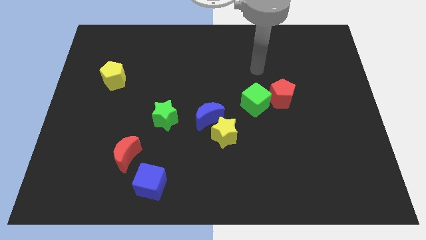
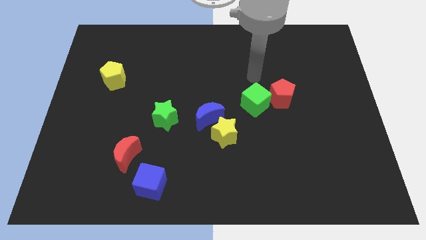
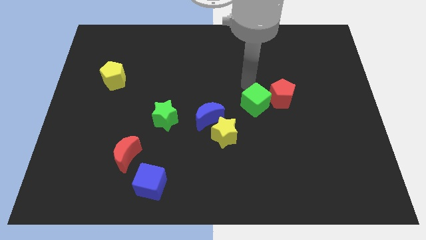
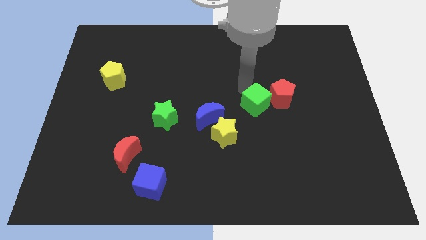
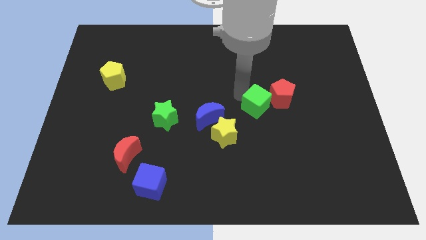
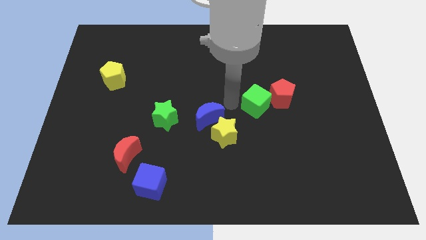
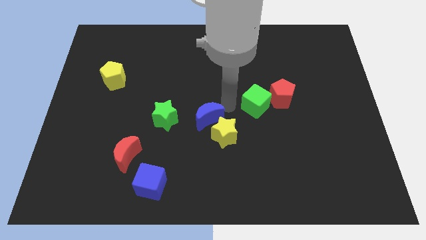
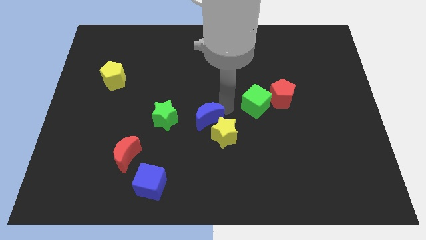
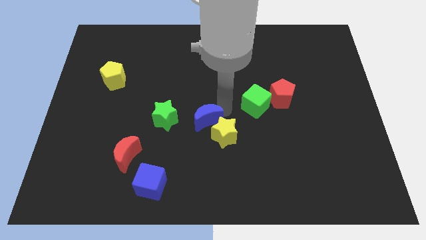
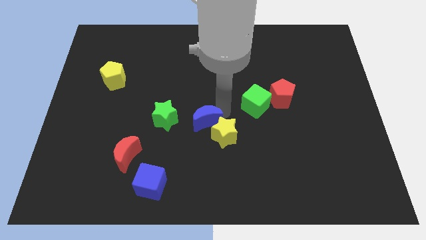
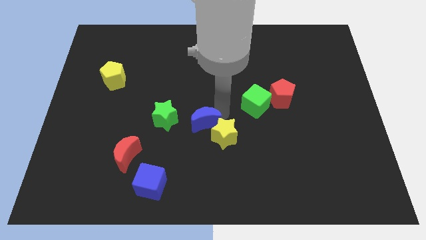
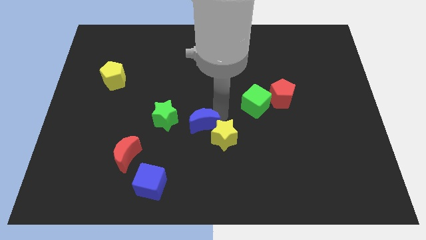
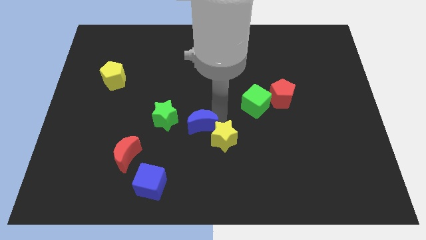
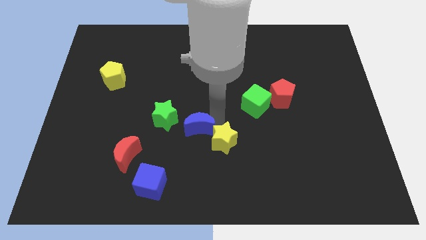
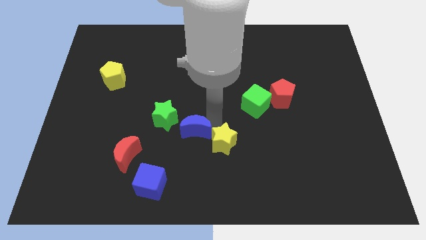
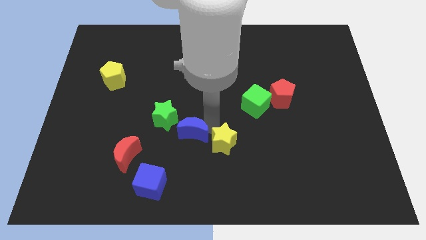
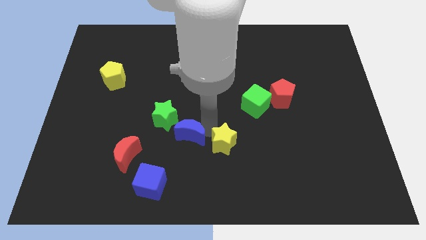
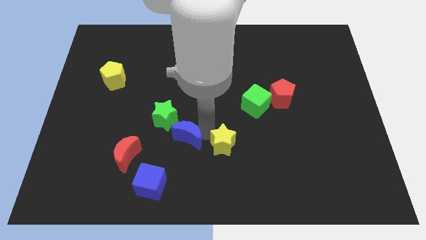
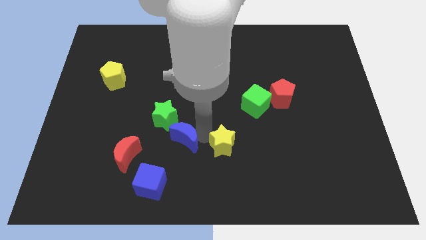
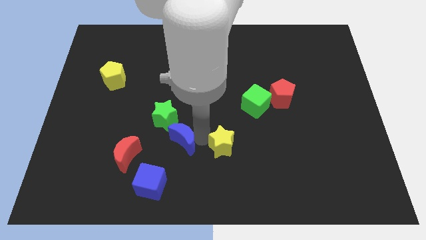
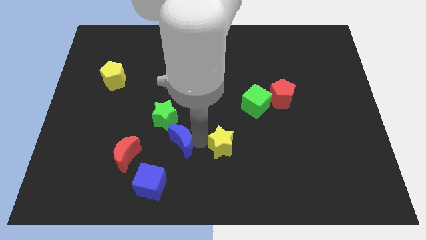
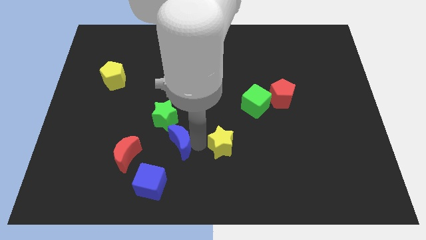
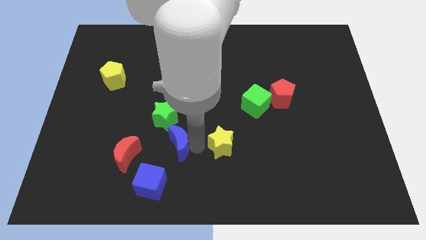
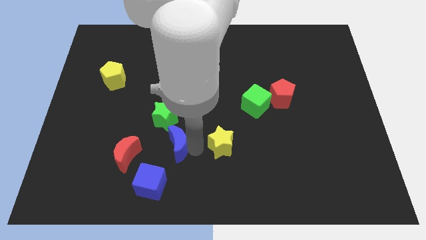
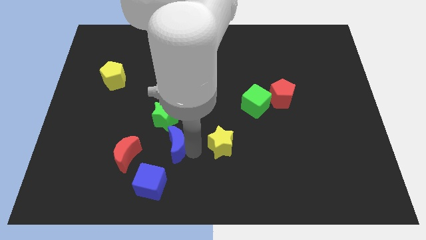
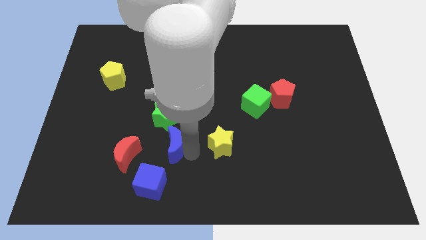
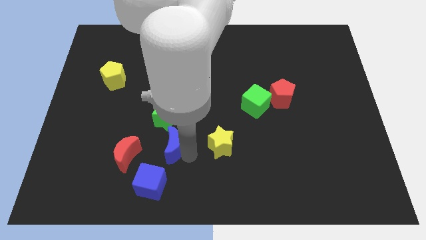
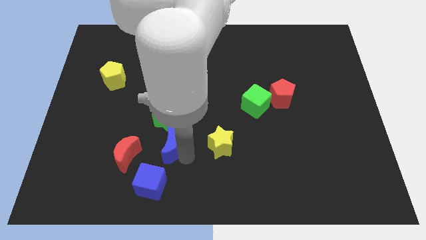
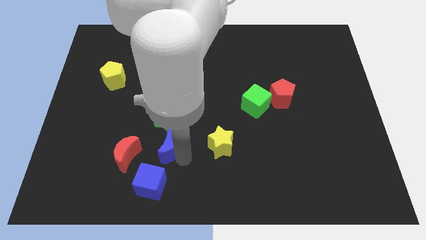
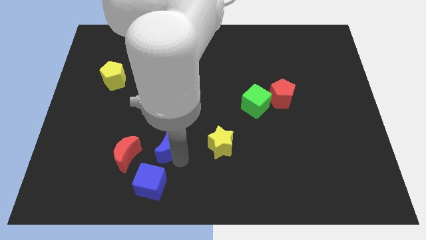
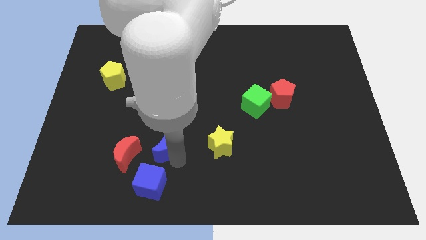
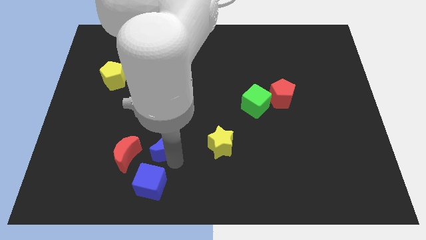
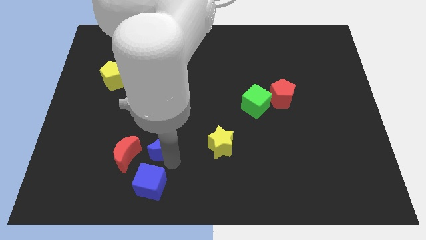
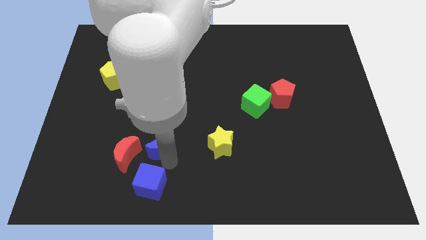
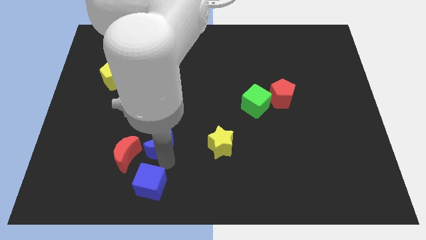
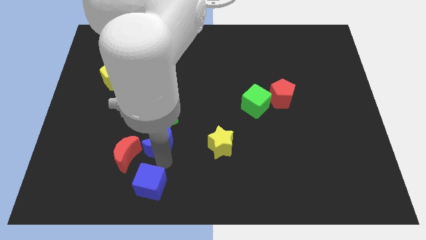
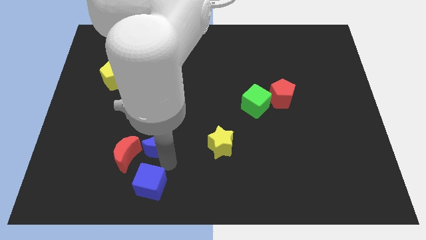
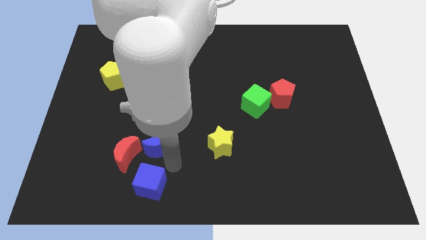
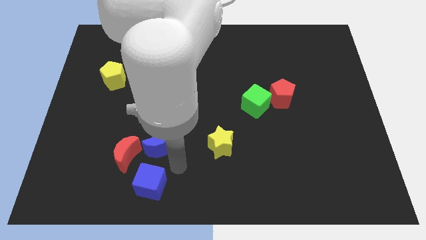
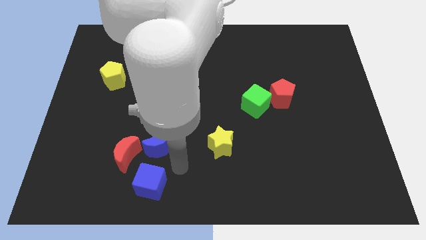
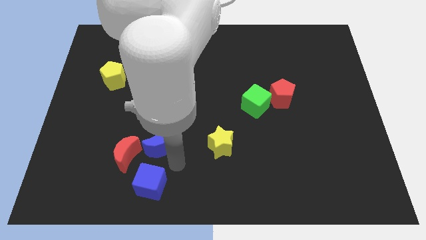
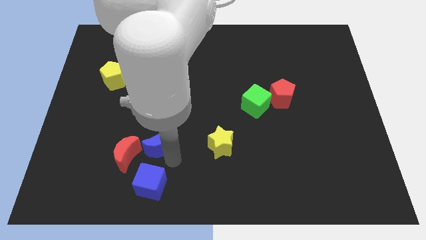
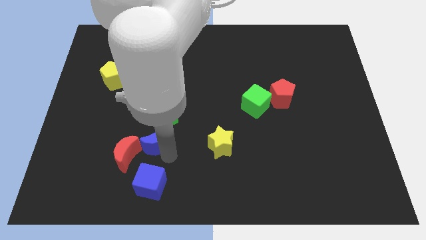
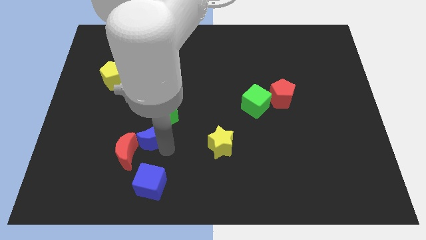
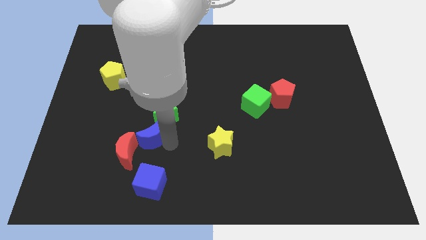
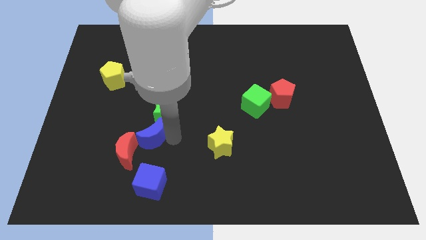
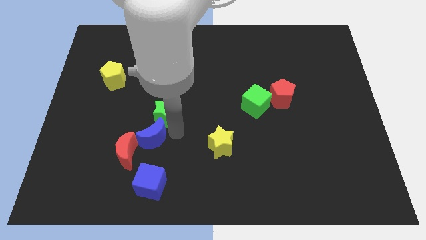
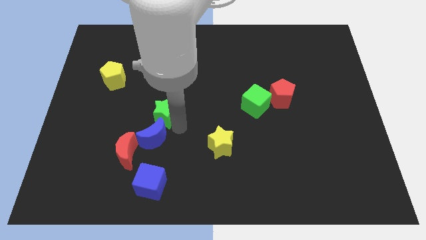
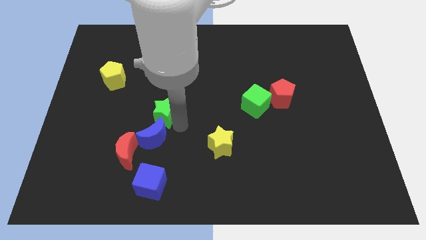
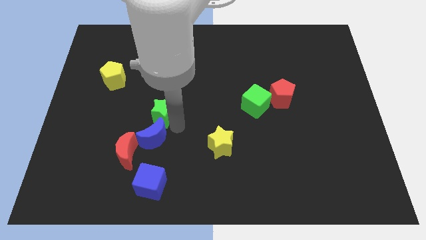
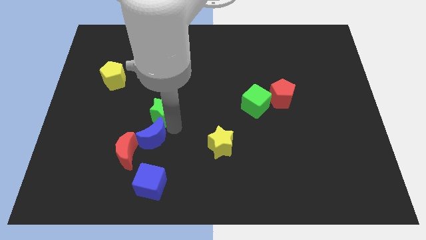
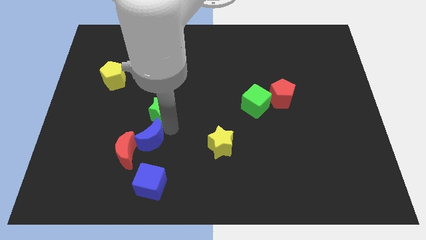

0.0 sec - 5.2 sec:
slide the blue moon towards the red moon

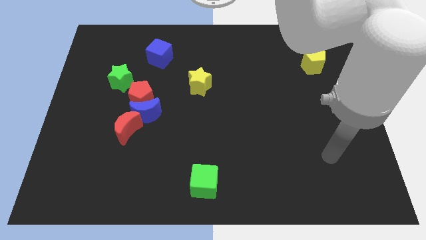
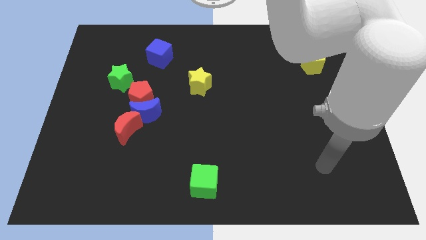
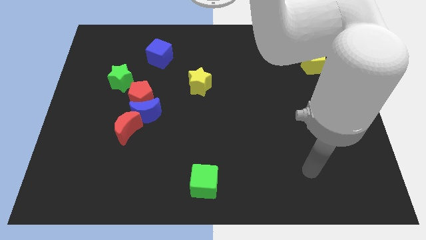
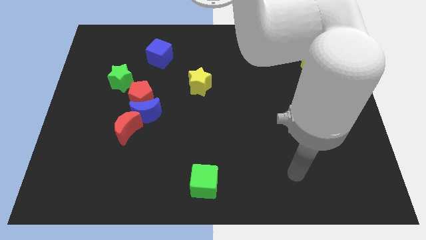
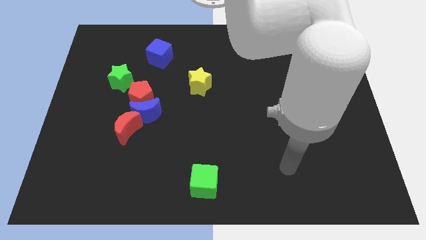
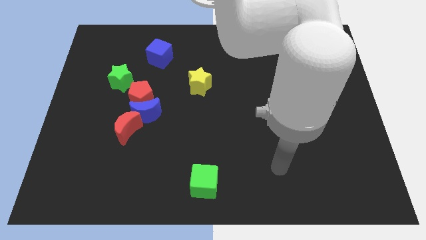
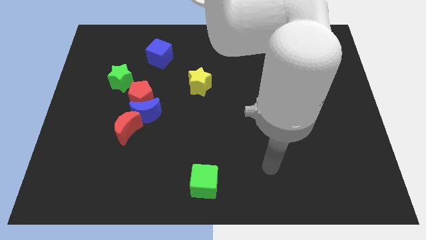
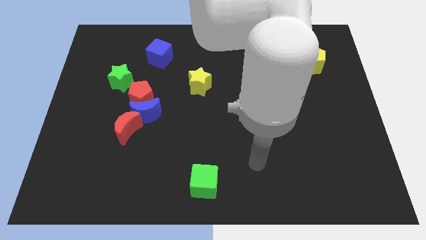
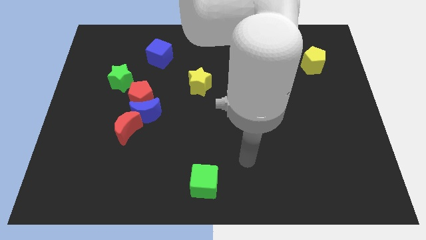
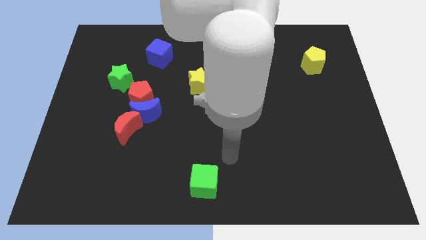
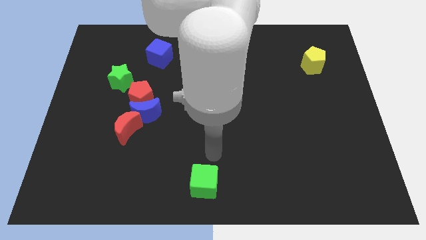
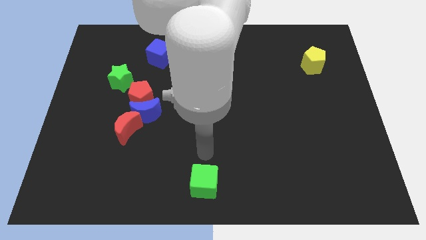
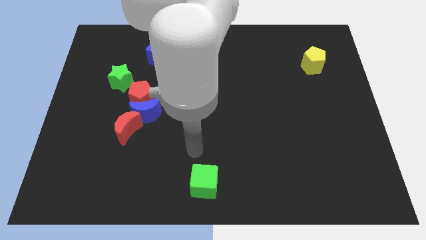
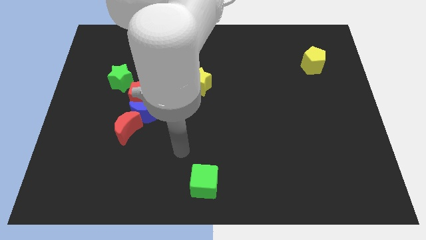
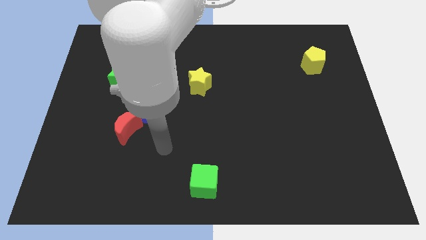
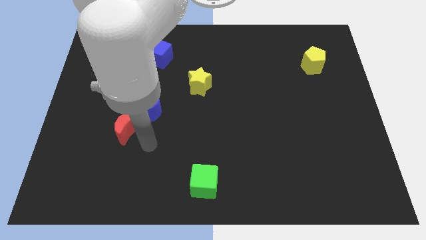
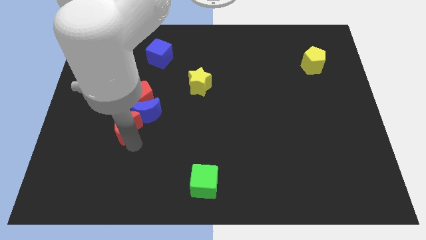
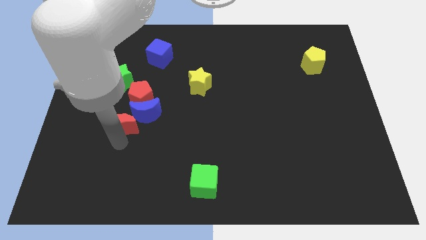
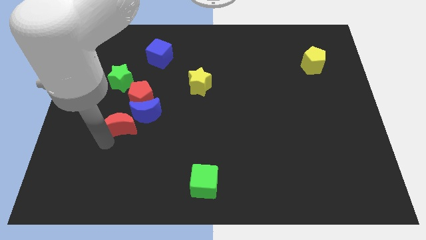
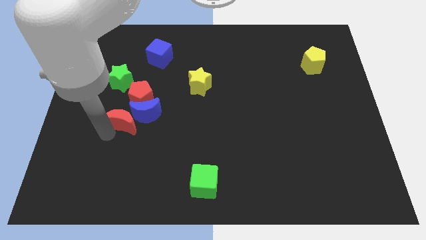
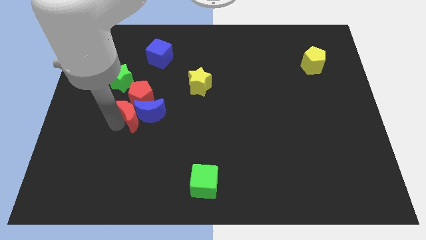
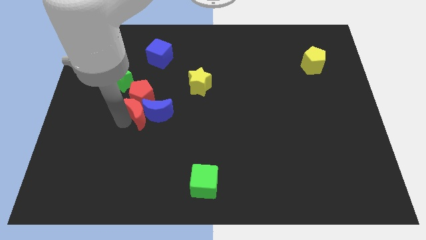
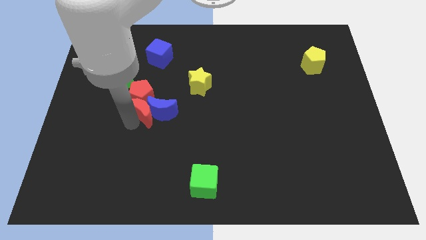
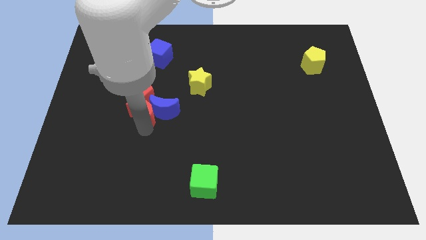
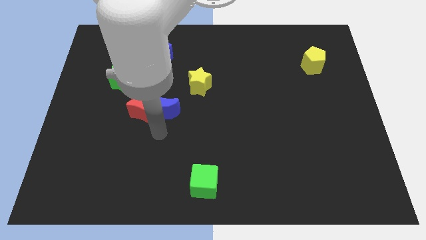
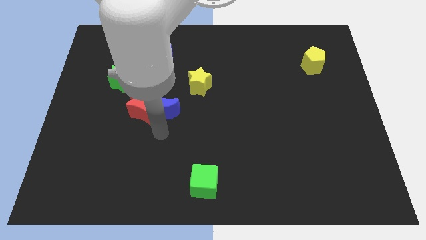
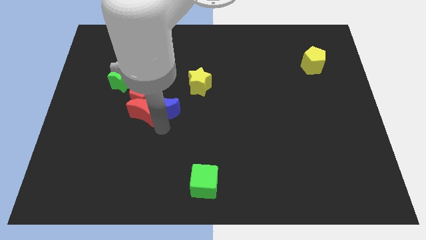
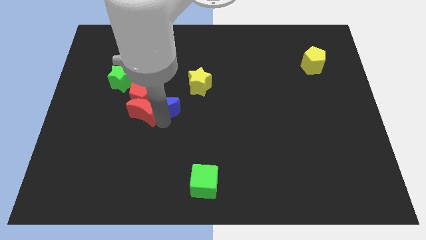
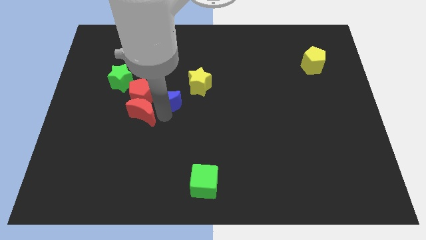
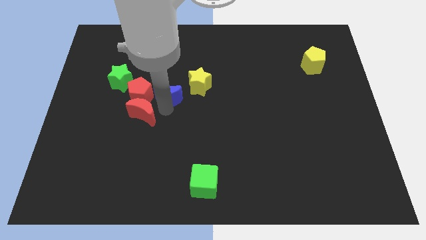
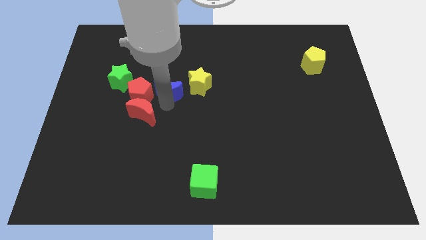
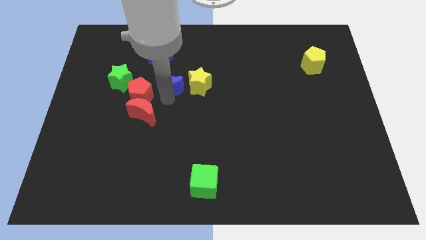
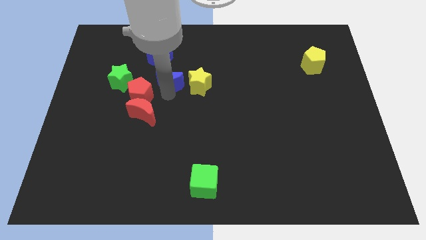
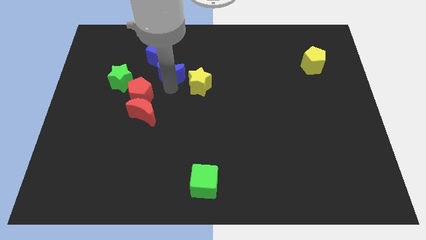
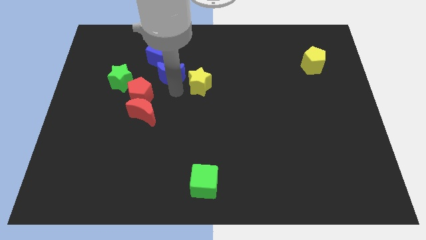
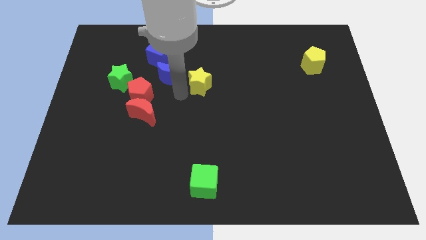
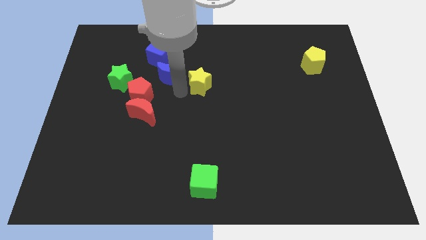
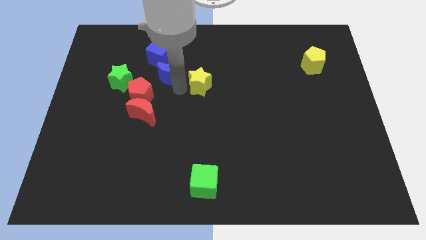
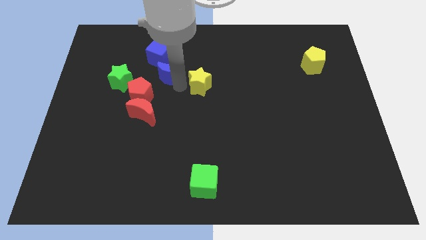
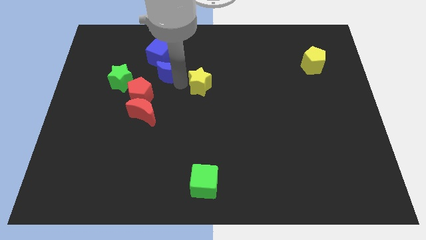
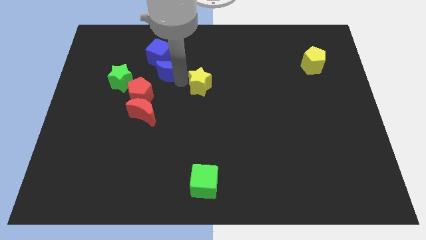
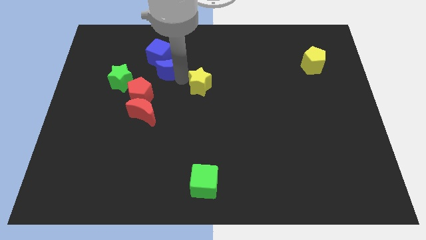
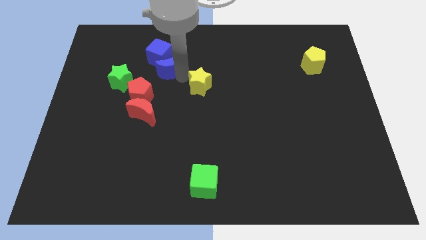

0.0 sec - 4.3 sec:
slide the blue moon close to the blue cube
